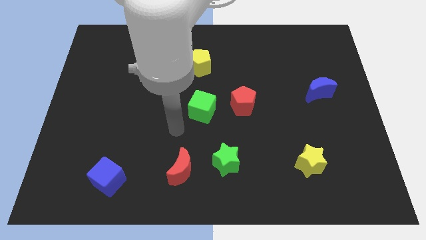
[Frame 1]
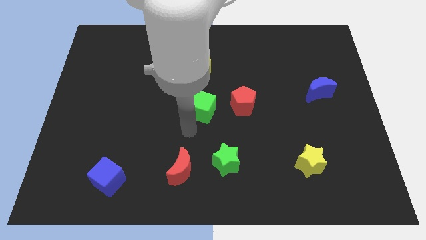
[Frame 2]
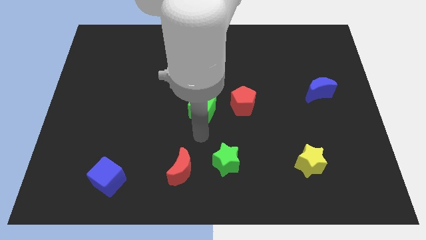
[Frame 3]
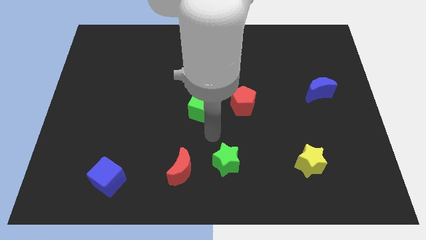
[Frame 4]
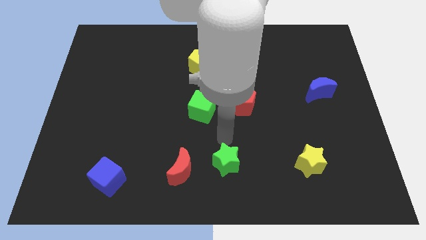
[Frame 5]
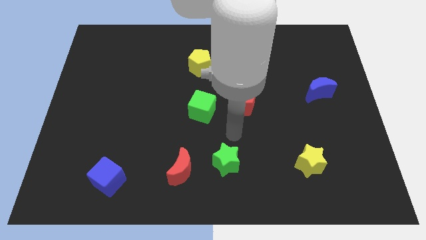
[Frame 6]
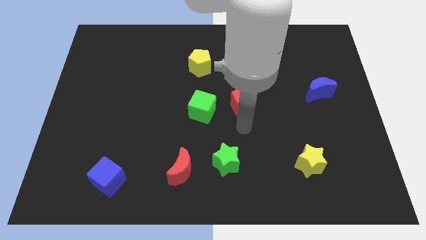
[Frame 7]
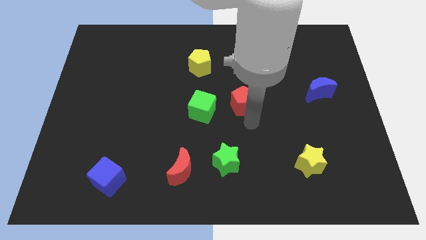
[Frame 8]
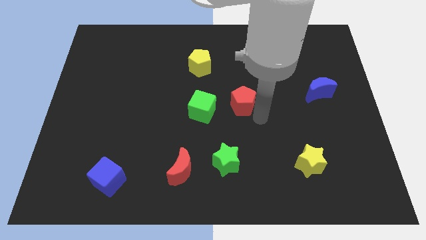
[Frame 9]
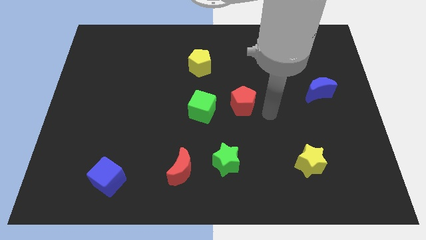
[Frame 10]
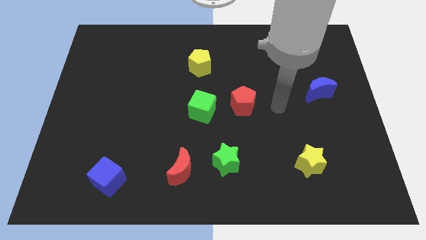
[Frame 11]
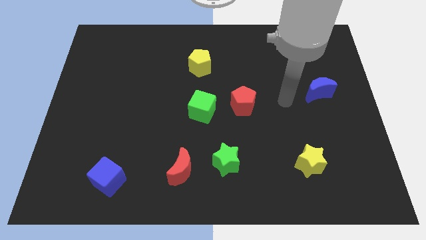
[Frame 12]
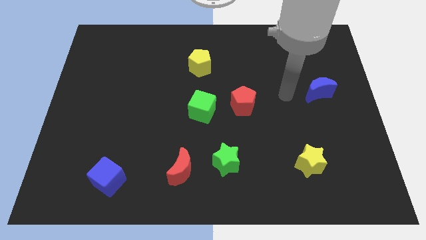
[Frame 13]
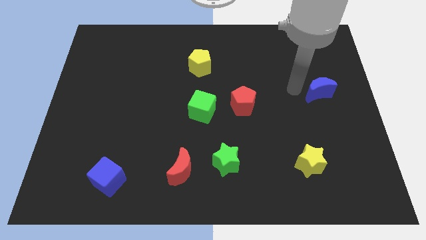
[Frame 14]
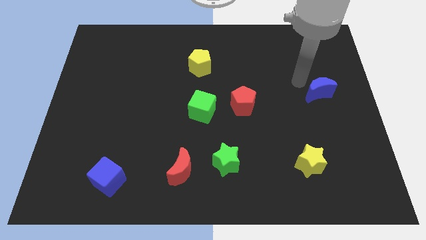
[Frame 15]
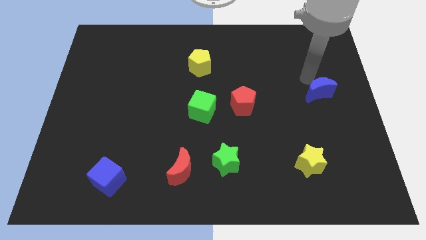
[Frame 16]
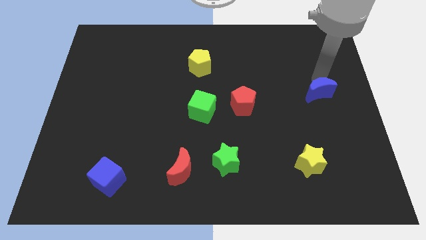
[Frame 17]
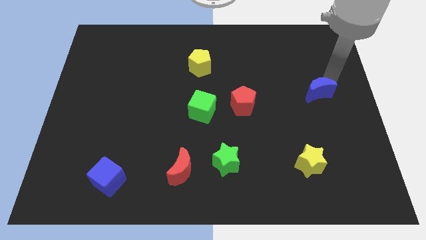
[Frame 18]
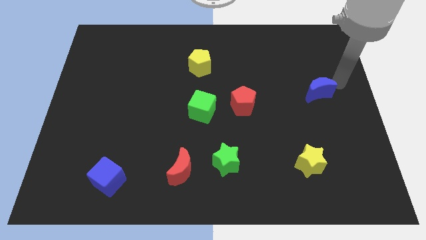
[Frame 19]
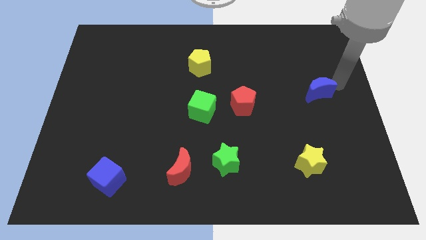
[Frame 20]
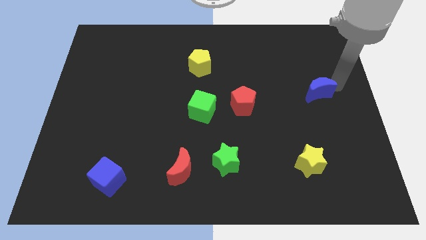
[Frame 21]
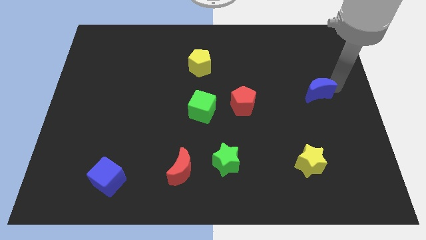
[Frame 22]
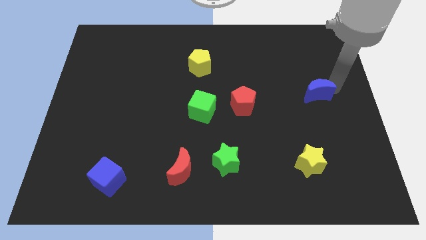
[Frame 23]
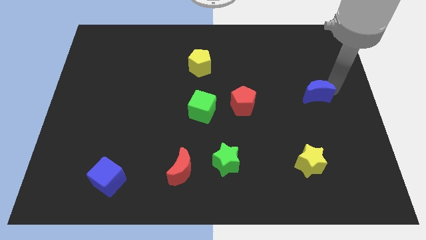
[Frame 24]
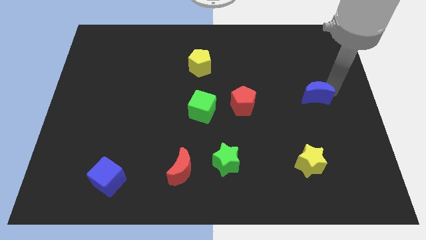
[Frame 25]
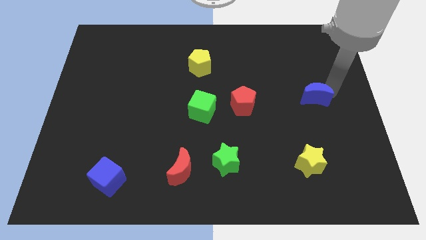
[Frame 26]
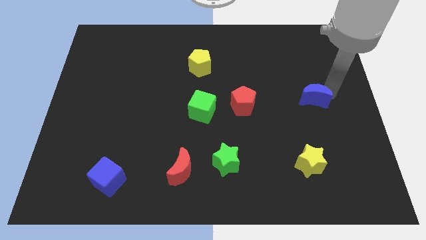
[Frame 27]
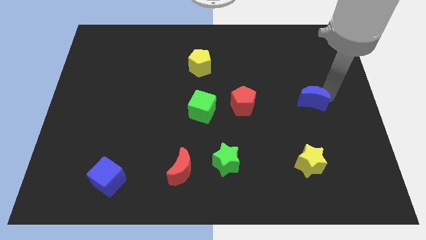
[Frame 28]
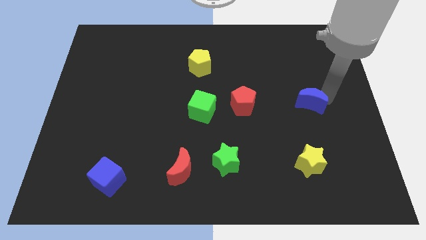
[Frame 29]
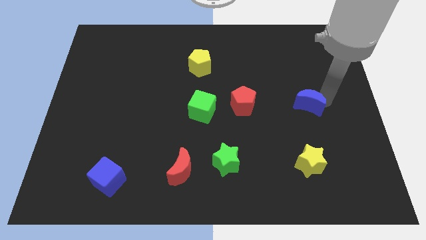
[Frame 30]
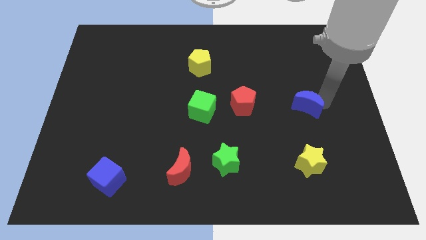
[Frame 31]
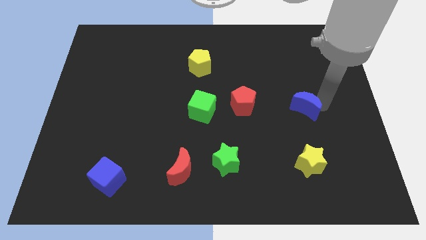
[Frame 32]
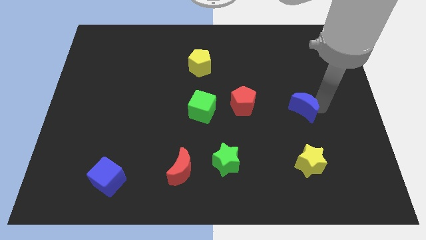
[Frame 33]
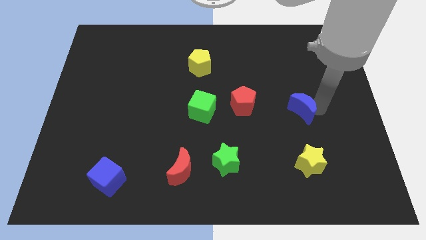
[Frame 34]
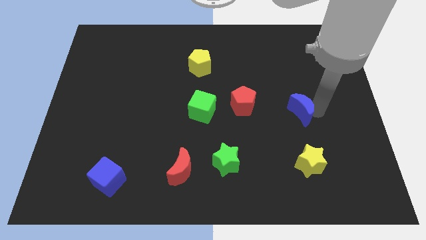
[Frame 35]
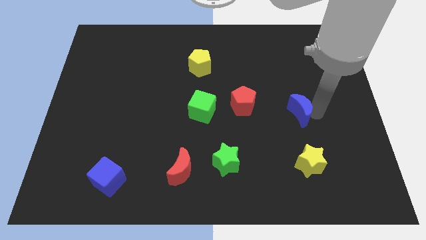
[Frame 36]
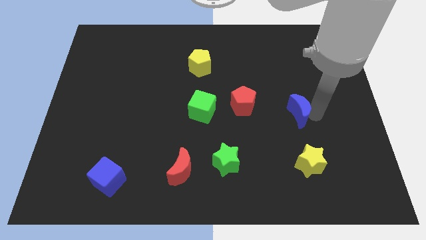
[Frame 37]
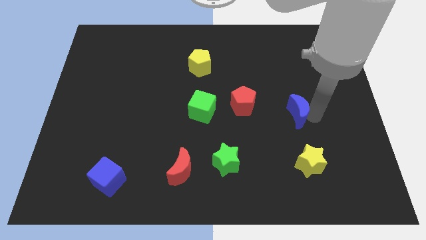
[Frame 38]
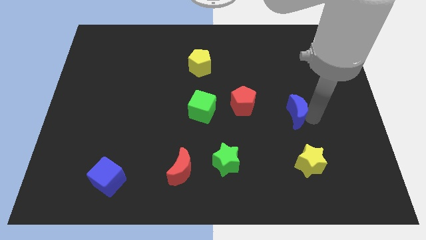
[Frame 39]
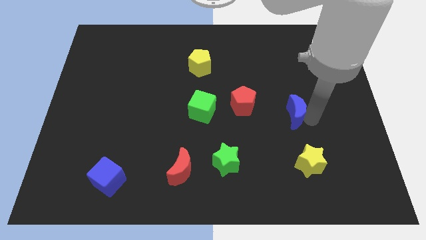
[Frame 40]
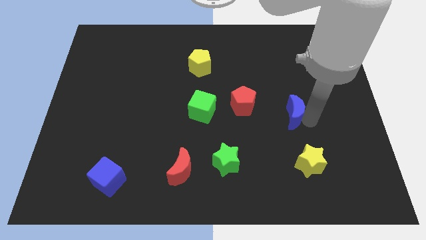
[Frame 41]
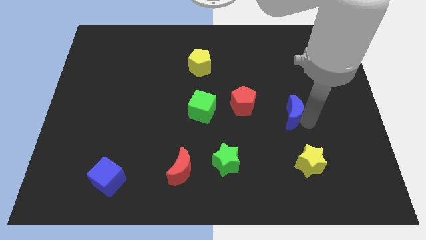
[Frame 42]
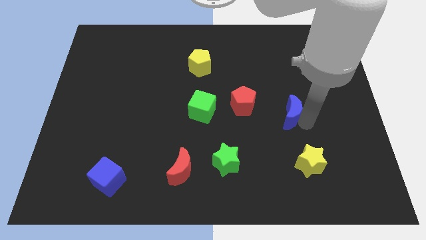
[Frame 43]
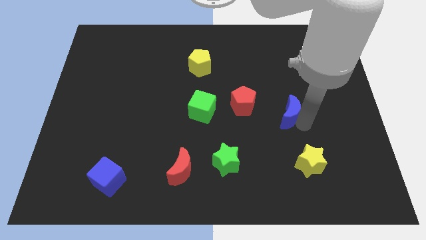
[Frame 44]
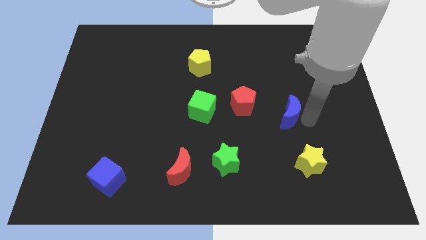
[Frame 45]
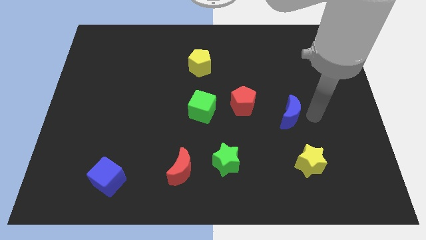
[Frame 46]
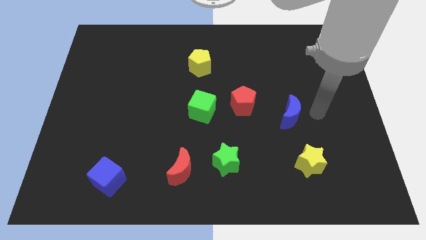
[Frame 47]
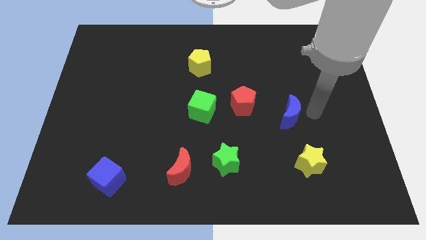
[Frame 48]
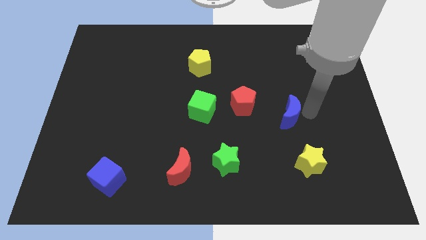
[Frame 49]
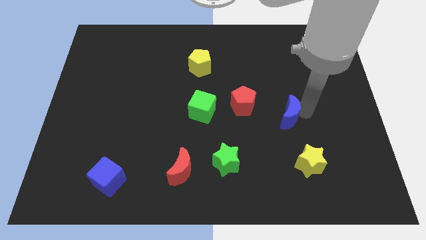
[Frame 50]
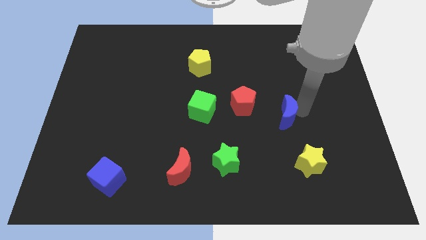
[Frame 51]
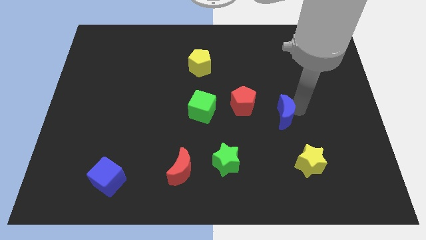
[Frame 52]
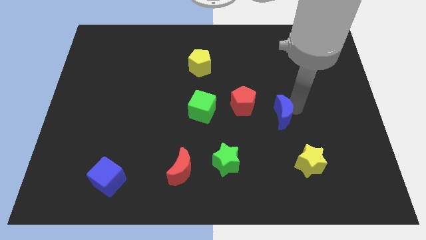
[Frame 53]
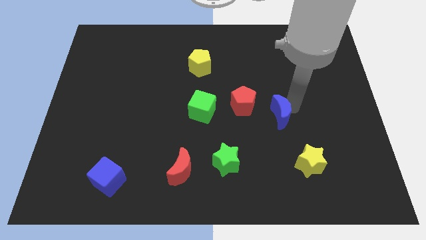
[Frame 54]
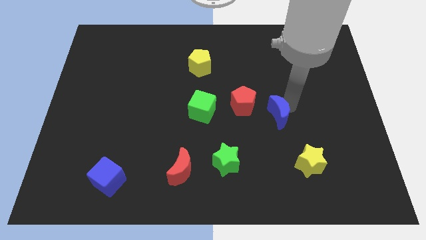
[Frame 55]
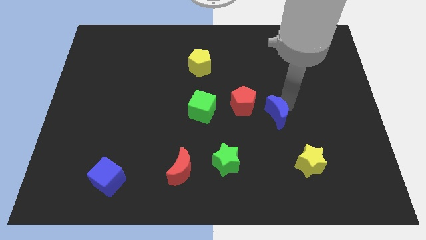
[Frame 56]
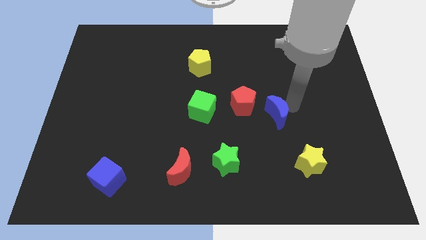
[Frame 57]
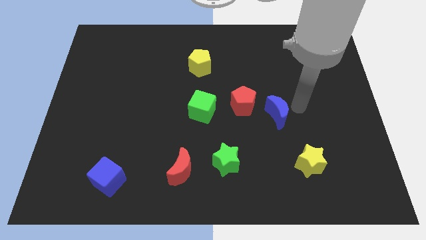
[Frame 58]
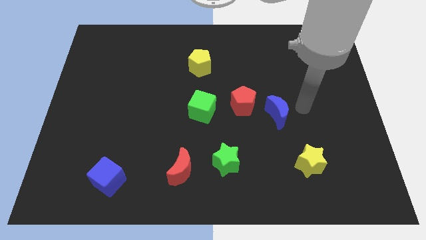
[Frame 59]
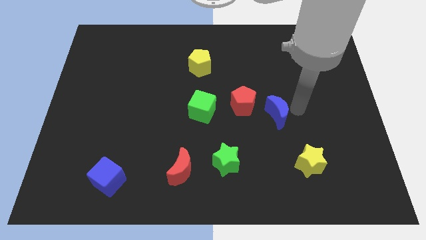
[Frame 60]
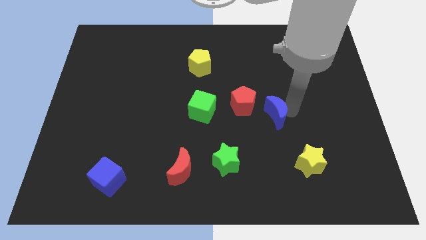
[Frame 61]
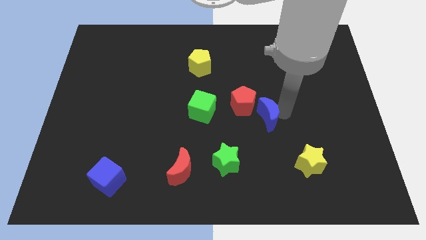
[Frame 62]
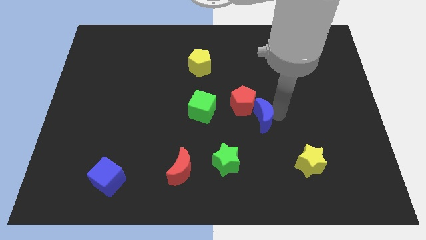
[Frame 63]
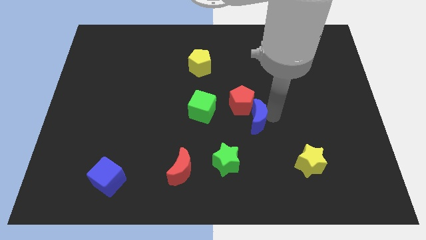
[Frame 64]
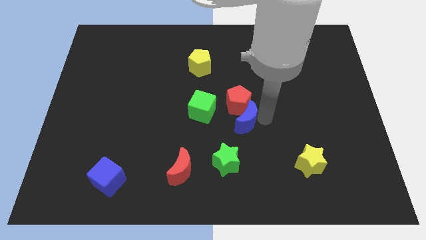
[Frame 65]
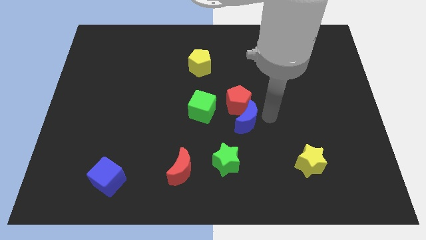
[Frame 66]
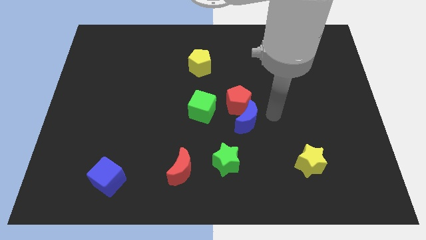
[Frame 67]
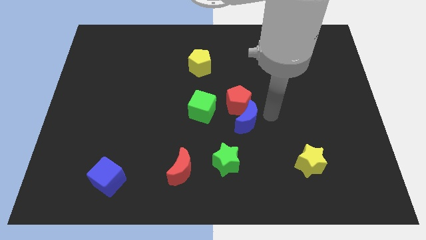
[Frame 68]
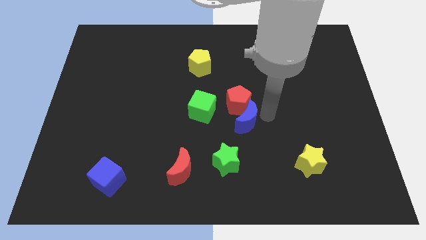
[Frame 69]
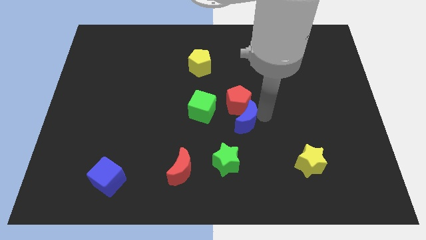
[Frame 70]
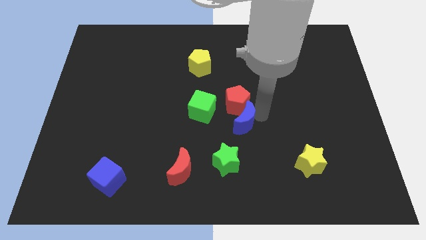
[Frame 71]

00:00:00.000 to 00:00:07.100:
put the blue moon to the bottom right of the green cube
